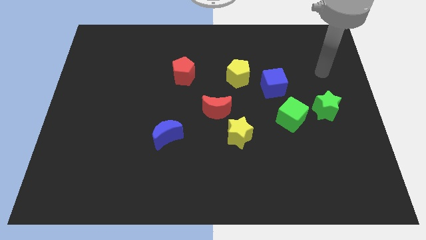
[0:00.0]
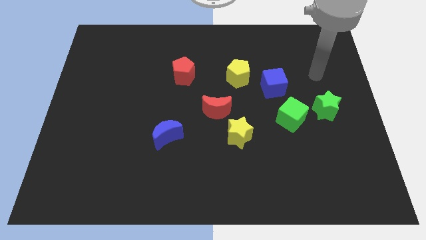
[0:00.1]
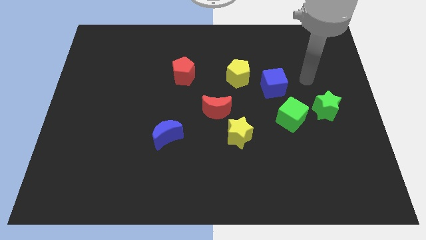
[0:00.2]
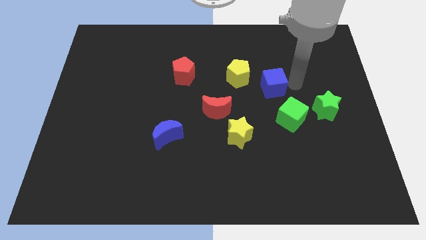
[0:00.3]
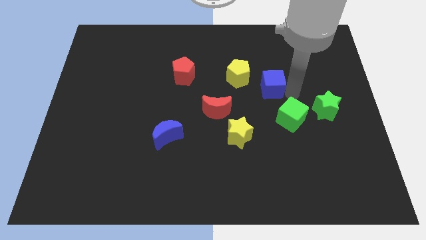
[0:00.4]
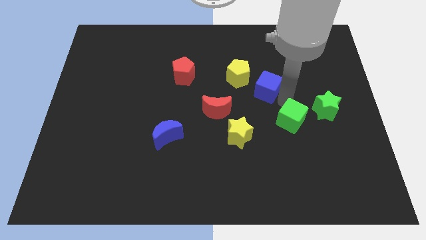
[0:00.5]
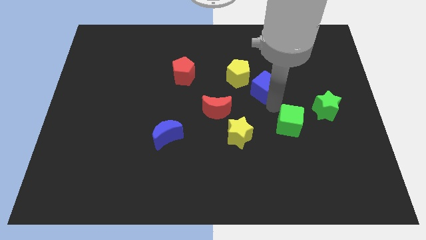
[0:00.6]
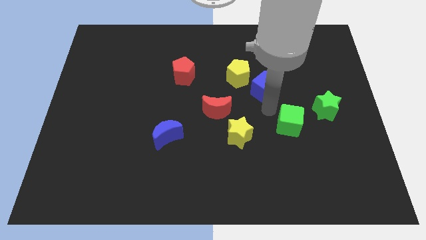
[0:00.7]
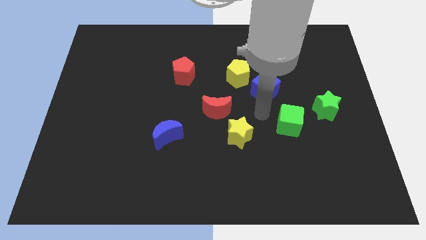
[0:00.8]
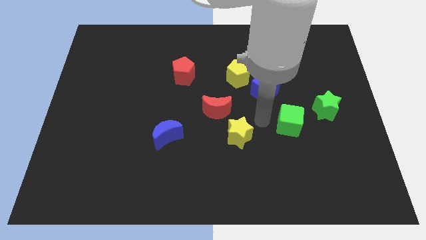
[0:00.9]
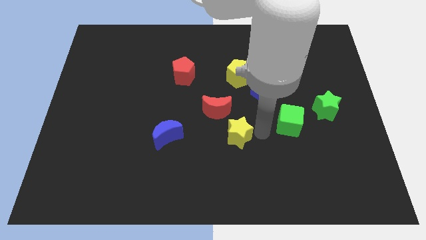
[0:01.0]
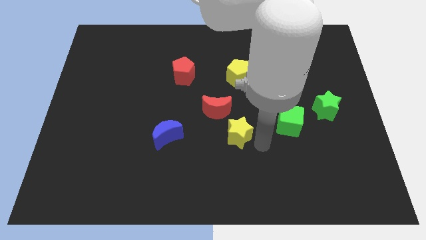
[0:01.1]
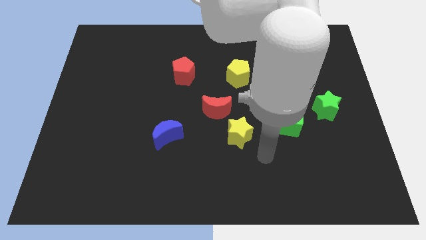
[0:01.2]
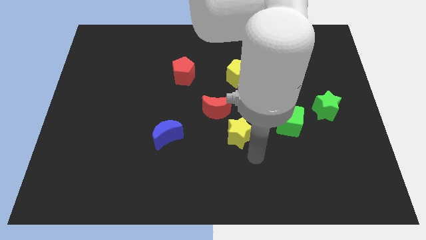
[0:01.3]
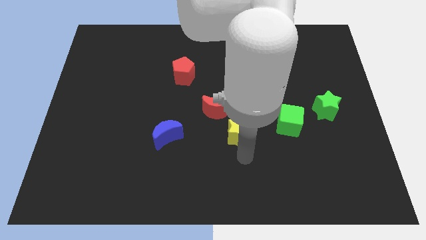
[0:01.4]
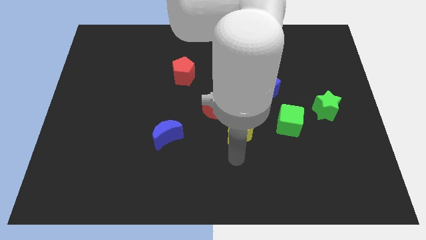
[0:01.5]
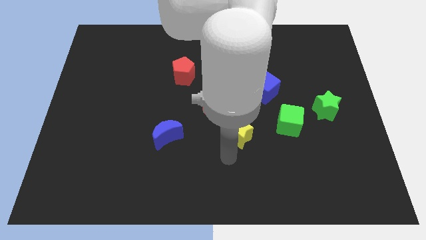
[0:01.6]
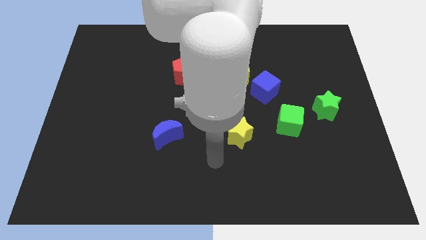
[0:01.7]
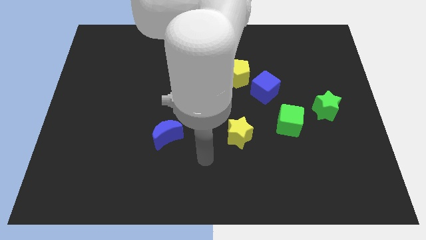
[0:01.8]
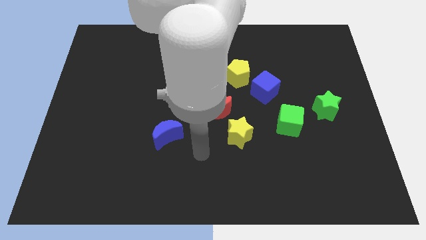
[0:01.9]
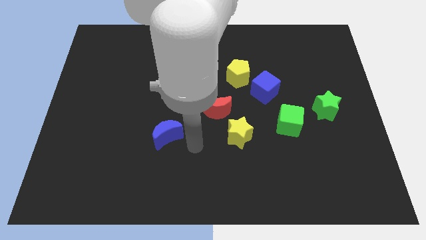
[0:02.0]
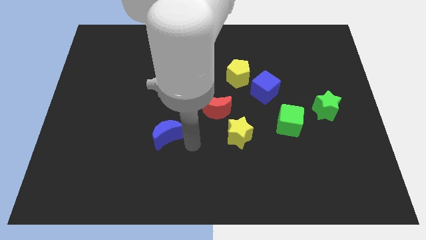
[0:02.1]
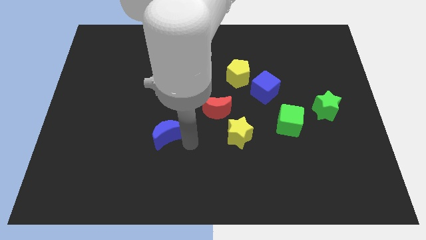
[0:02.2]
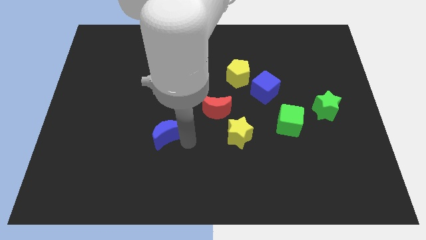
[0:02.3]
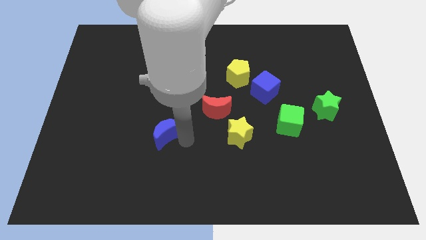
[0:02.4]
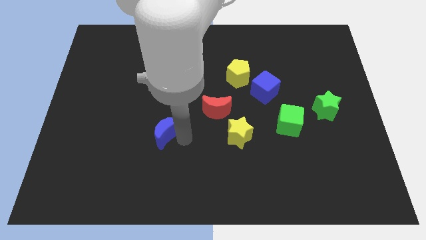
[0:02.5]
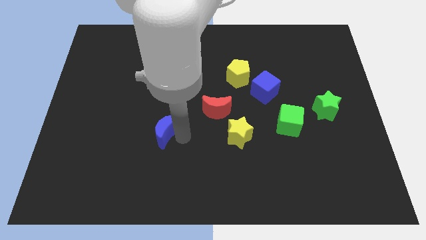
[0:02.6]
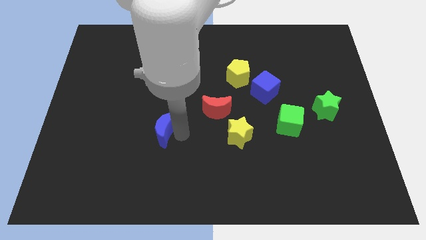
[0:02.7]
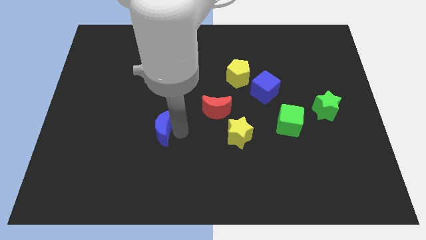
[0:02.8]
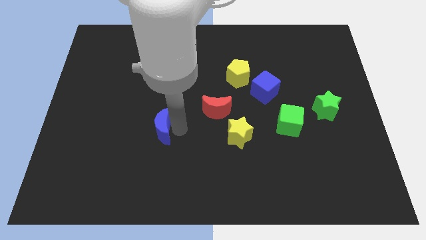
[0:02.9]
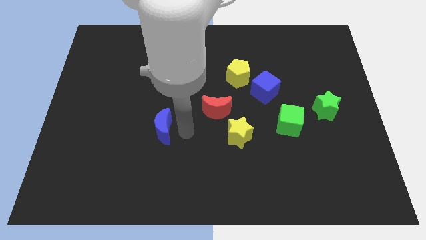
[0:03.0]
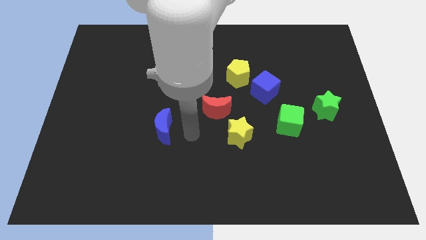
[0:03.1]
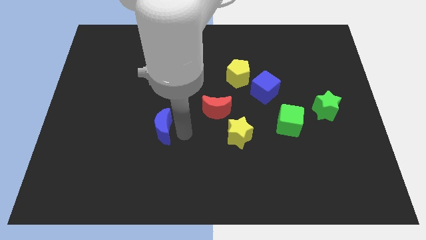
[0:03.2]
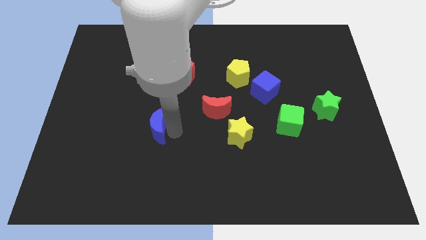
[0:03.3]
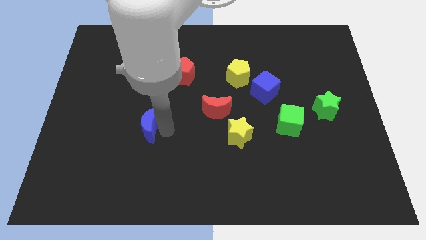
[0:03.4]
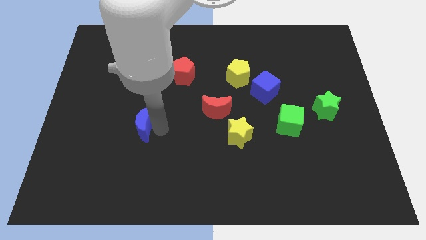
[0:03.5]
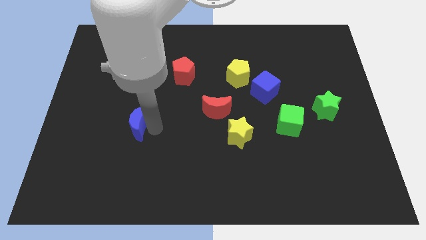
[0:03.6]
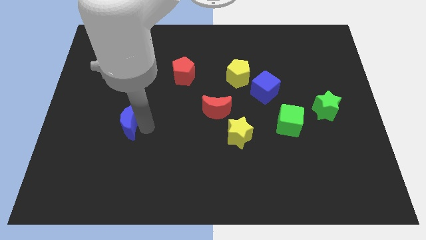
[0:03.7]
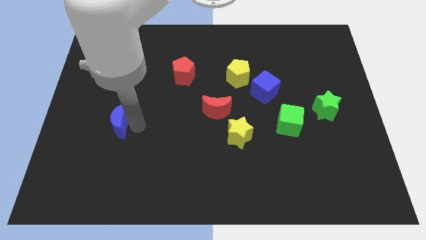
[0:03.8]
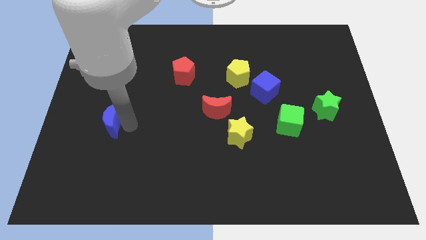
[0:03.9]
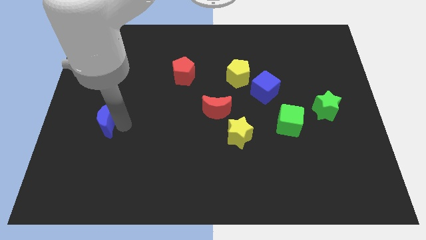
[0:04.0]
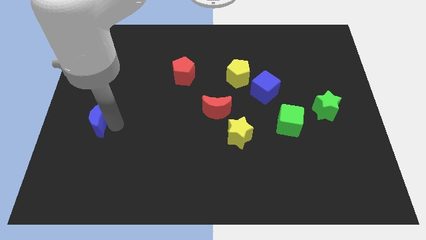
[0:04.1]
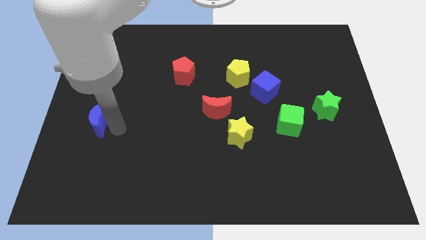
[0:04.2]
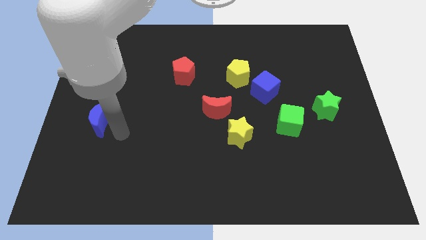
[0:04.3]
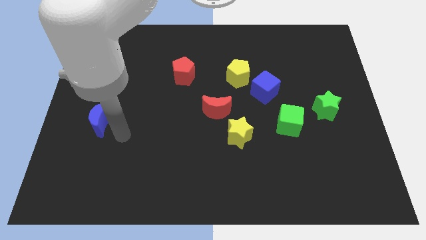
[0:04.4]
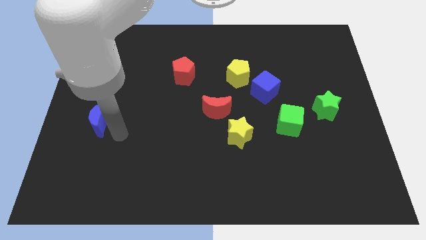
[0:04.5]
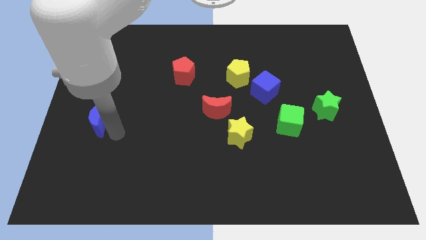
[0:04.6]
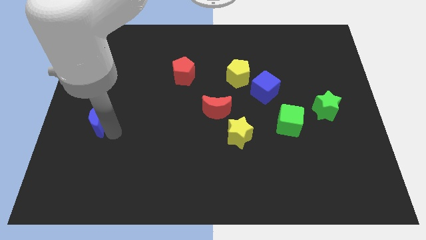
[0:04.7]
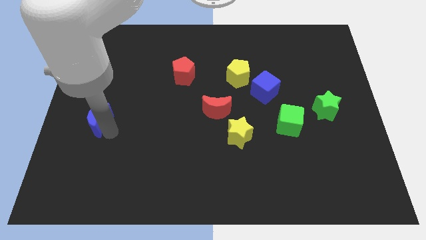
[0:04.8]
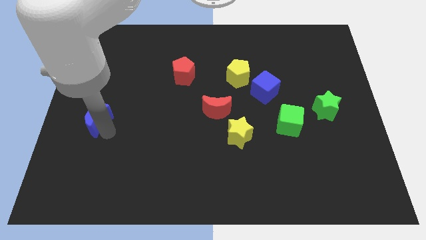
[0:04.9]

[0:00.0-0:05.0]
move the blue moon to the left side

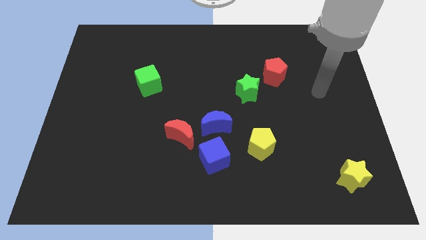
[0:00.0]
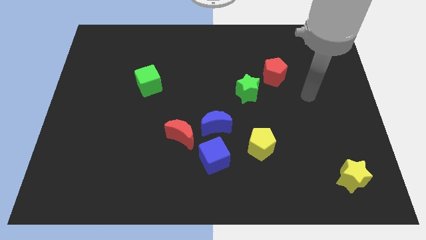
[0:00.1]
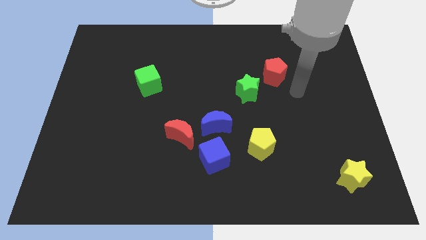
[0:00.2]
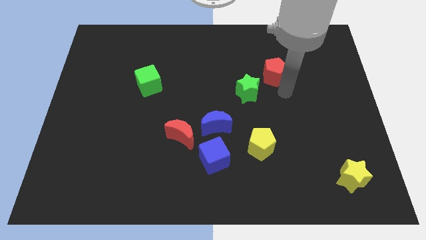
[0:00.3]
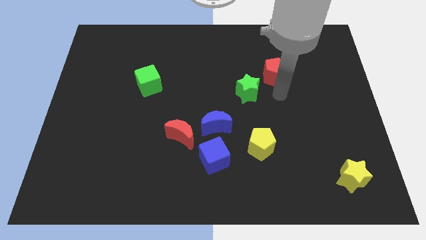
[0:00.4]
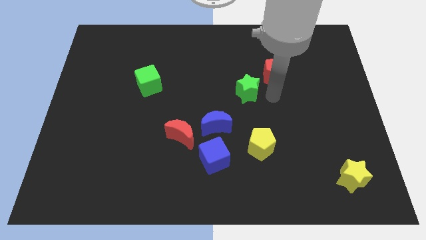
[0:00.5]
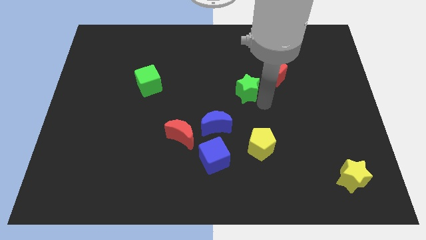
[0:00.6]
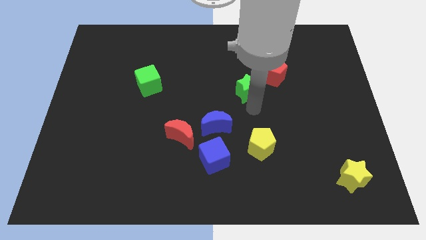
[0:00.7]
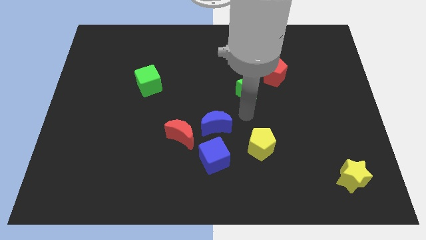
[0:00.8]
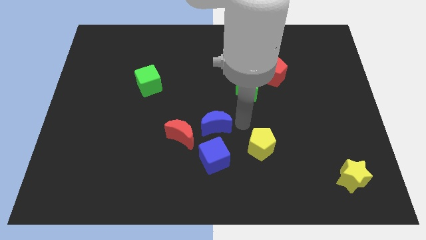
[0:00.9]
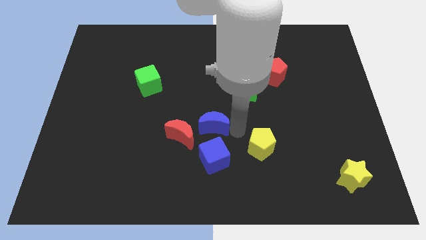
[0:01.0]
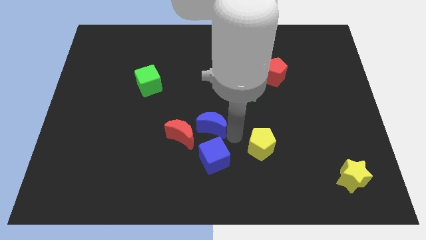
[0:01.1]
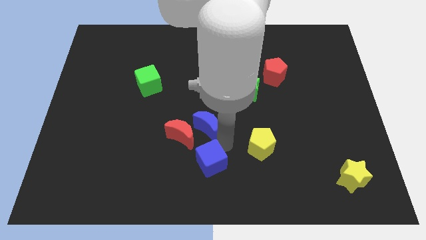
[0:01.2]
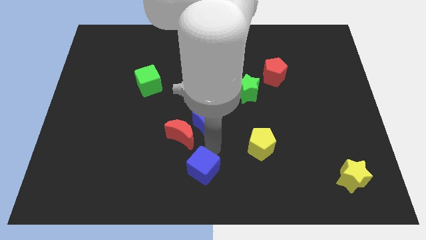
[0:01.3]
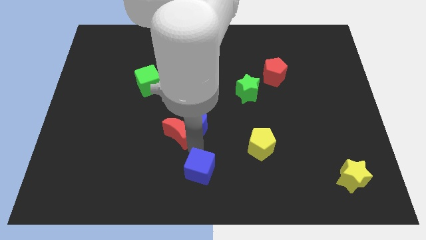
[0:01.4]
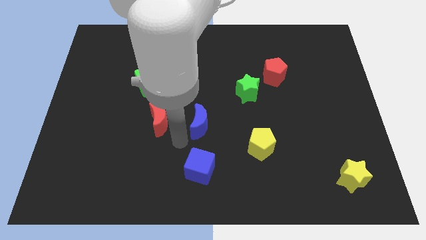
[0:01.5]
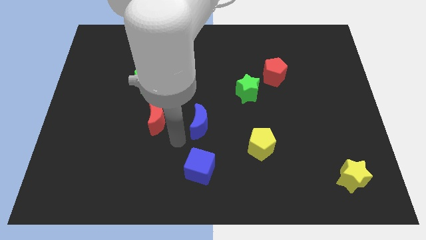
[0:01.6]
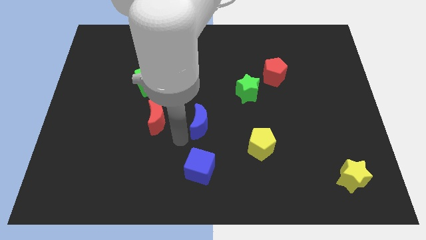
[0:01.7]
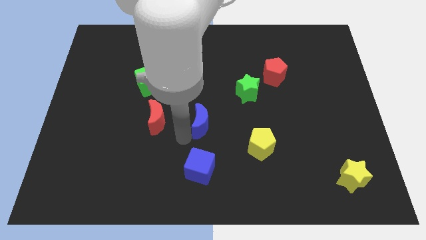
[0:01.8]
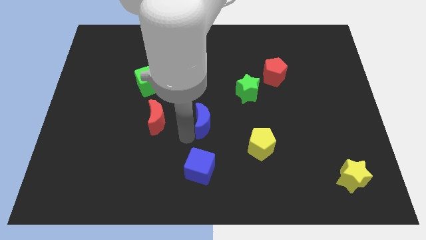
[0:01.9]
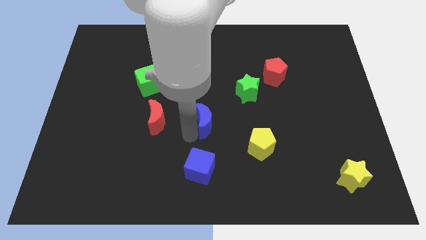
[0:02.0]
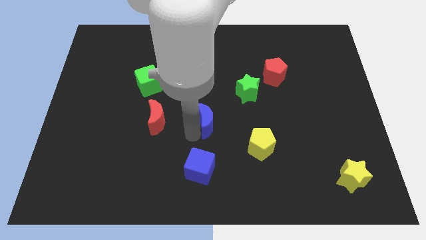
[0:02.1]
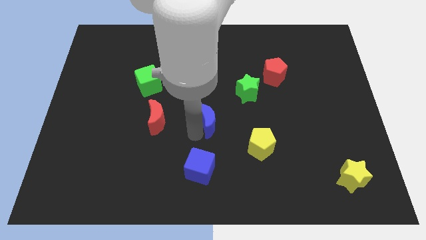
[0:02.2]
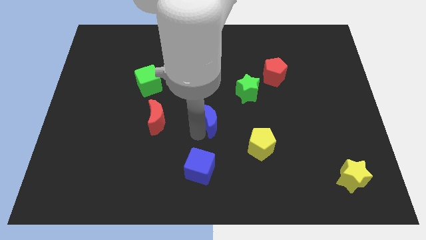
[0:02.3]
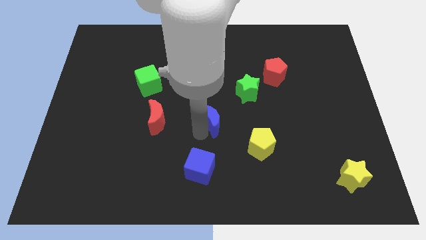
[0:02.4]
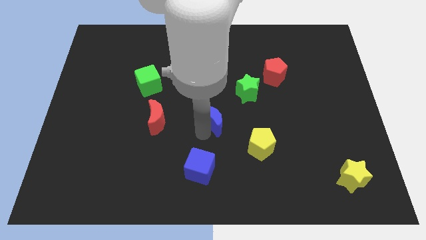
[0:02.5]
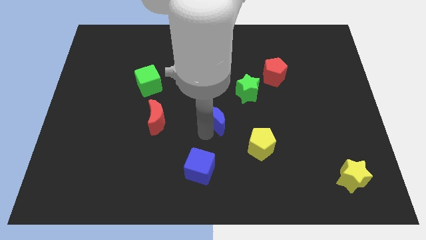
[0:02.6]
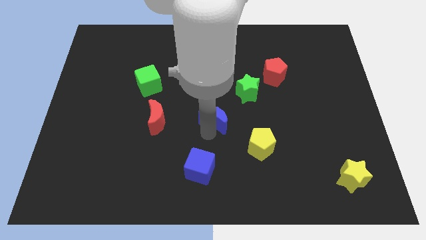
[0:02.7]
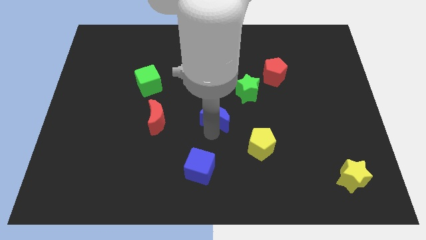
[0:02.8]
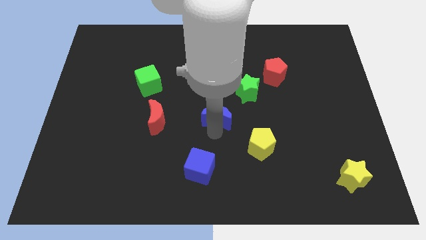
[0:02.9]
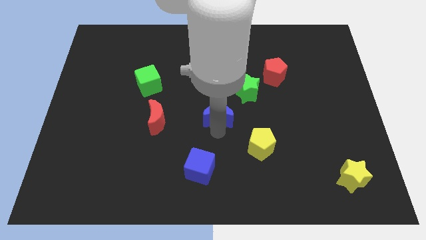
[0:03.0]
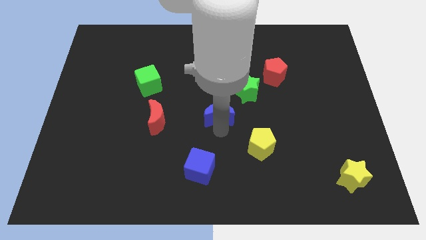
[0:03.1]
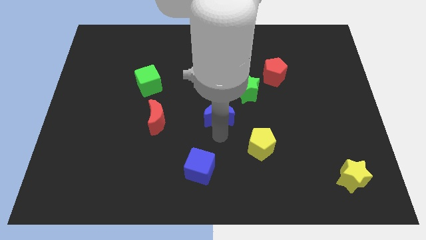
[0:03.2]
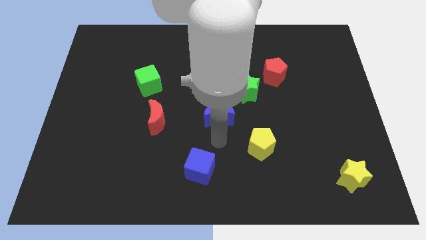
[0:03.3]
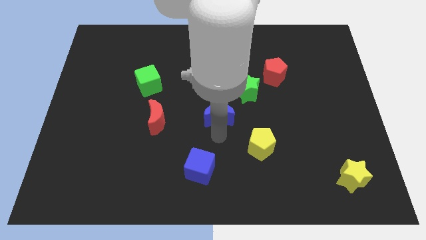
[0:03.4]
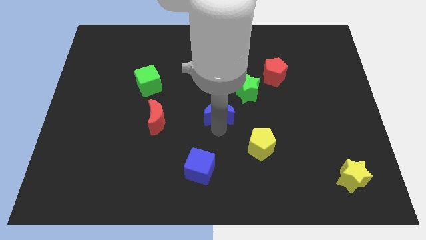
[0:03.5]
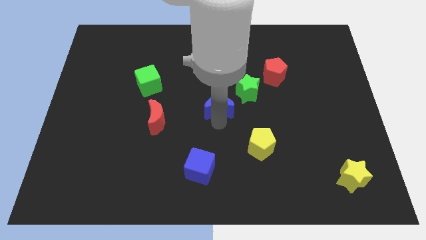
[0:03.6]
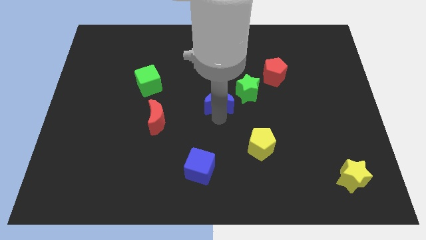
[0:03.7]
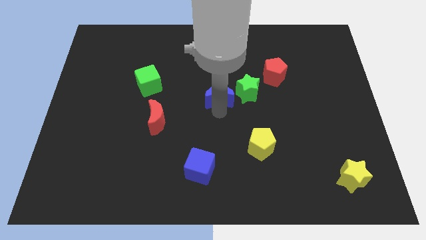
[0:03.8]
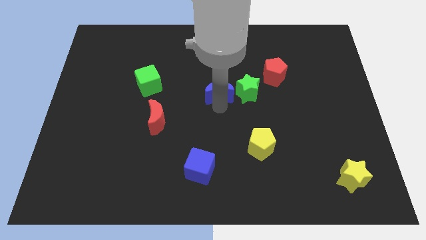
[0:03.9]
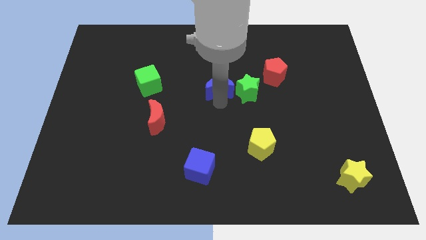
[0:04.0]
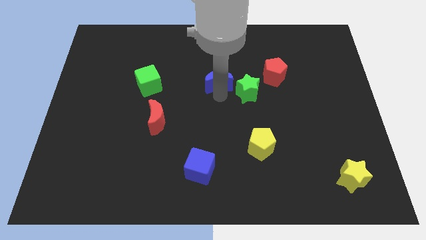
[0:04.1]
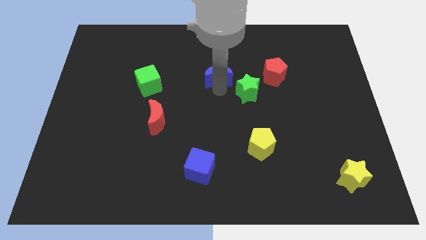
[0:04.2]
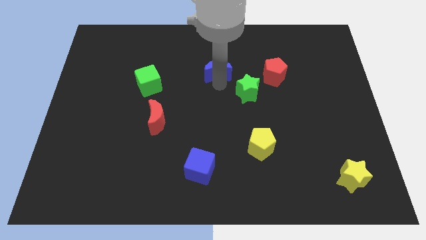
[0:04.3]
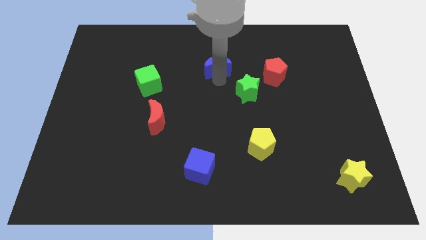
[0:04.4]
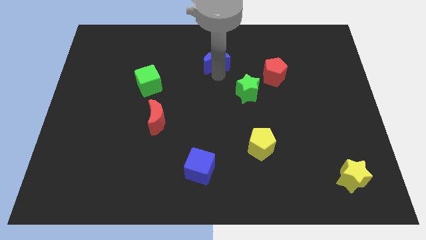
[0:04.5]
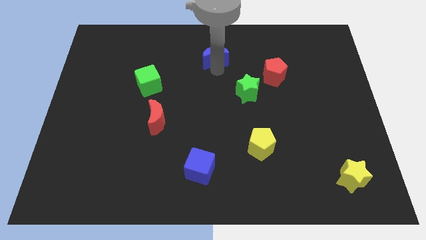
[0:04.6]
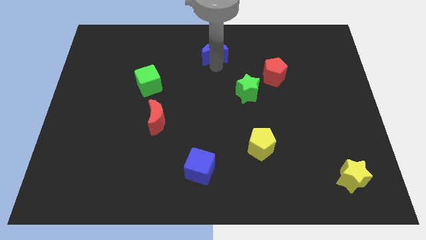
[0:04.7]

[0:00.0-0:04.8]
put the blue moon to the top side
